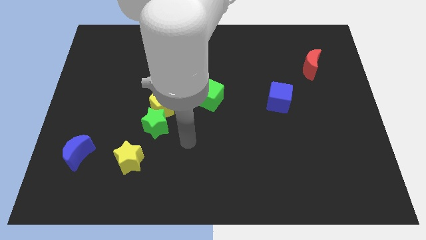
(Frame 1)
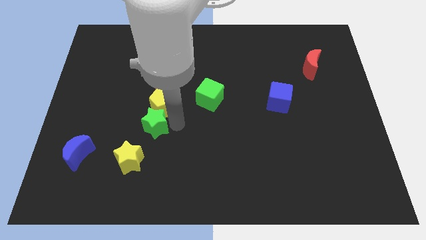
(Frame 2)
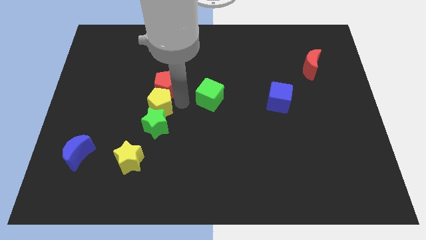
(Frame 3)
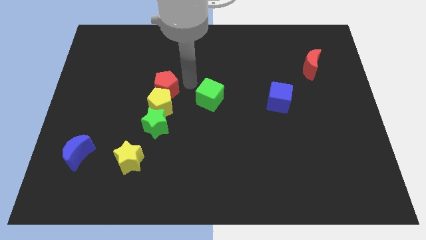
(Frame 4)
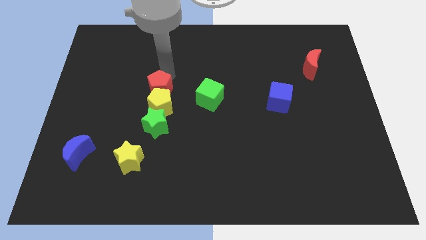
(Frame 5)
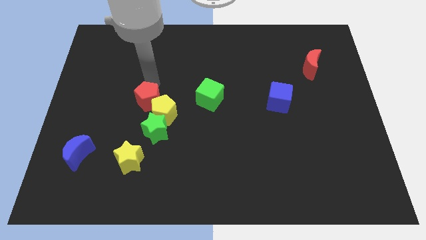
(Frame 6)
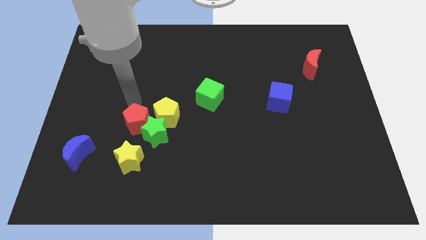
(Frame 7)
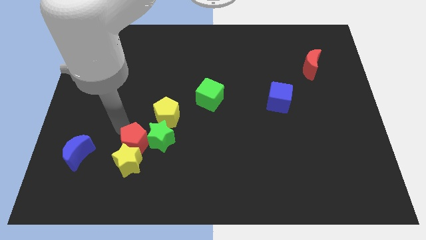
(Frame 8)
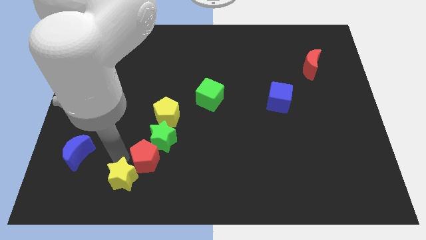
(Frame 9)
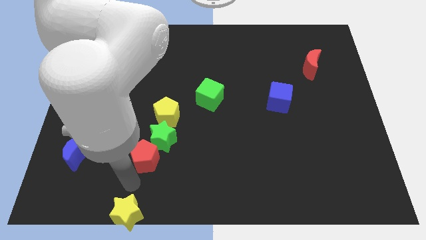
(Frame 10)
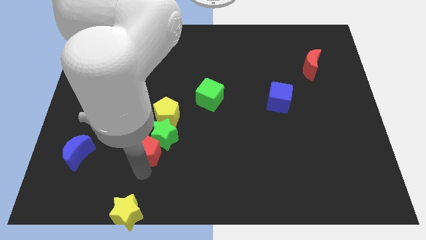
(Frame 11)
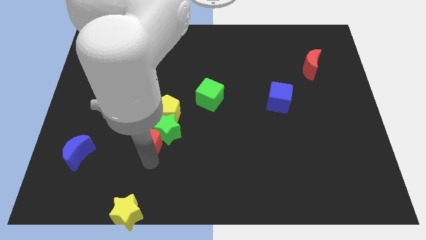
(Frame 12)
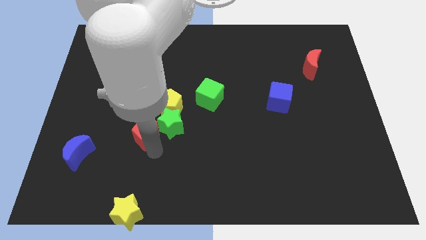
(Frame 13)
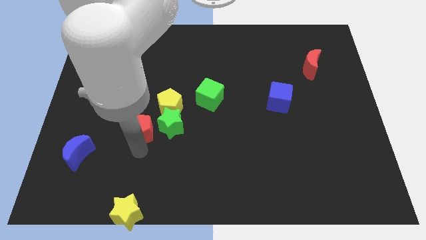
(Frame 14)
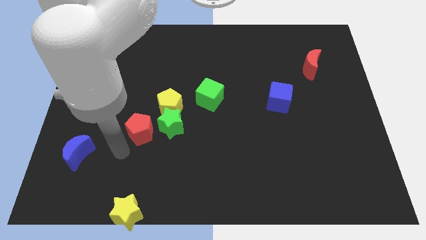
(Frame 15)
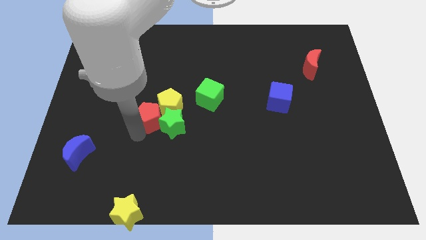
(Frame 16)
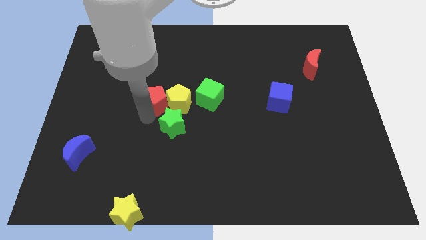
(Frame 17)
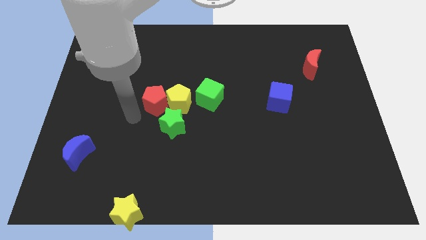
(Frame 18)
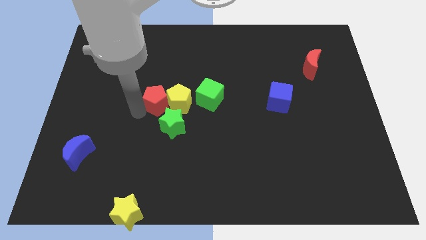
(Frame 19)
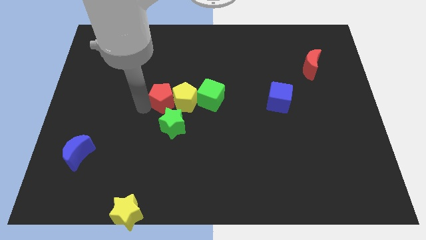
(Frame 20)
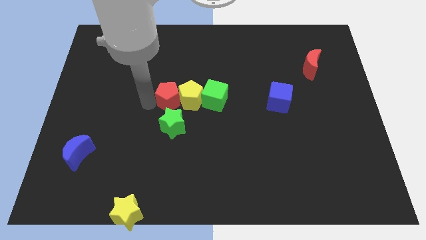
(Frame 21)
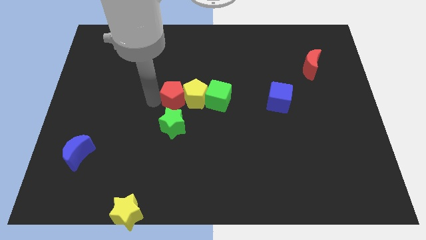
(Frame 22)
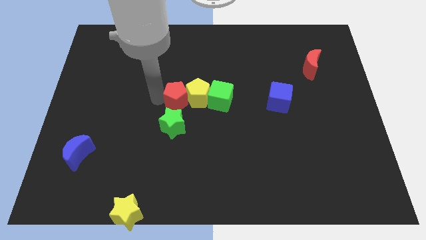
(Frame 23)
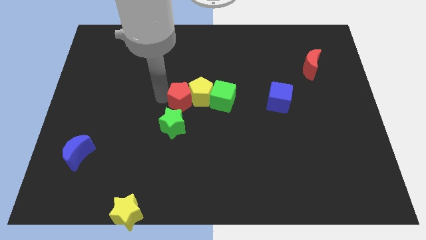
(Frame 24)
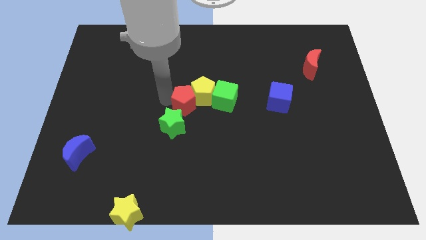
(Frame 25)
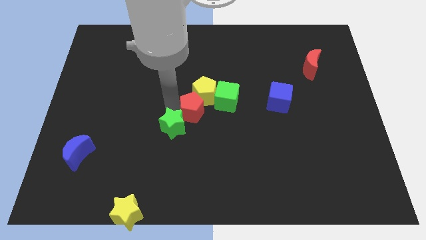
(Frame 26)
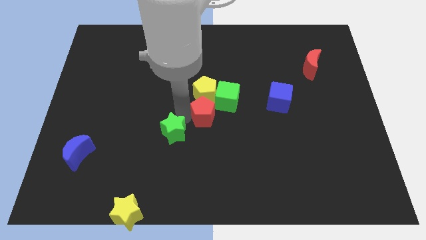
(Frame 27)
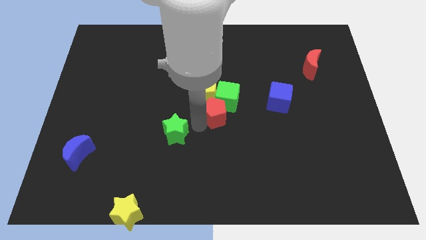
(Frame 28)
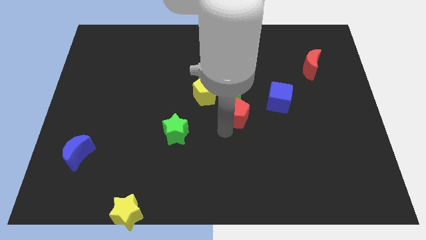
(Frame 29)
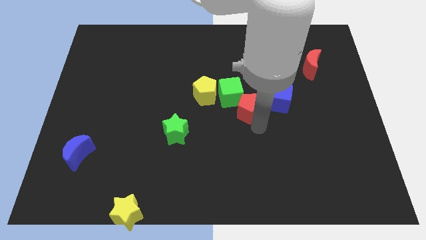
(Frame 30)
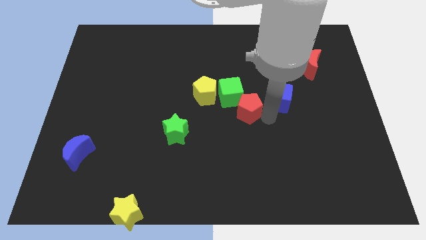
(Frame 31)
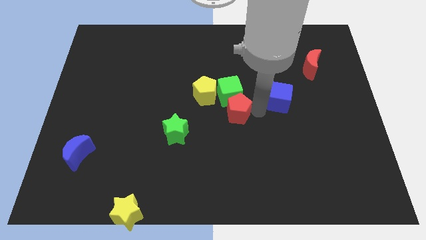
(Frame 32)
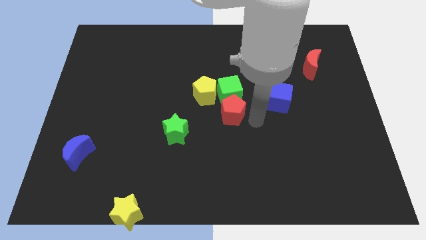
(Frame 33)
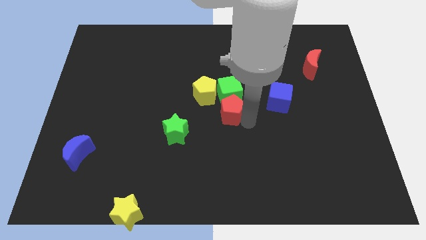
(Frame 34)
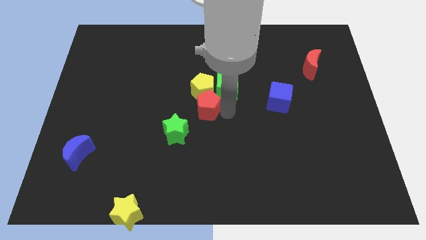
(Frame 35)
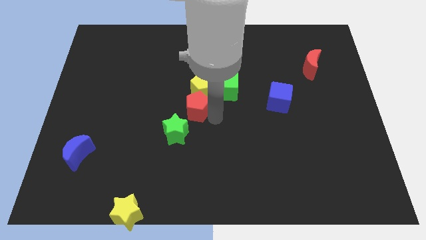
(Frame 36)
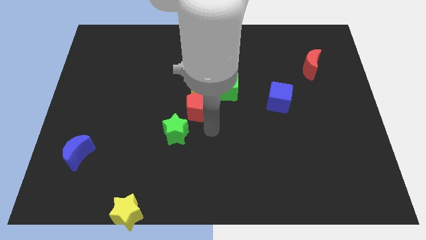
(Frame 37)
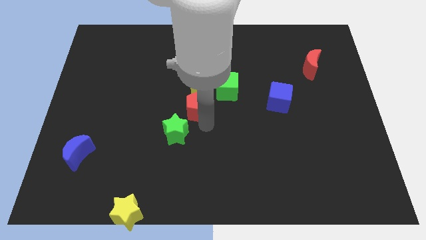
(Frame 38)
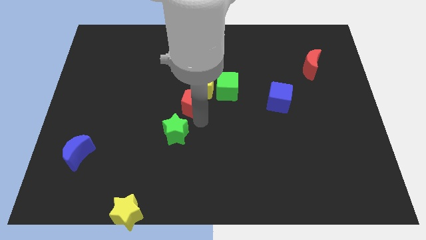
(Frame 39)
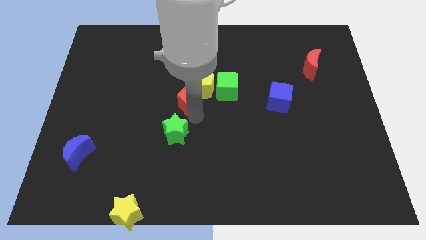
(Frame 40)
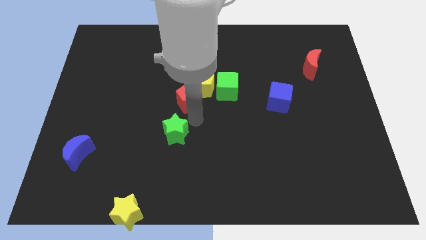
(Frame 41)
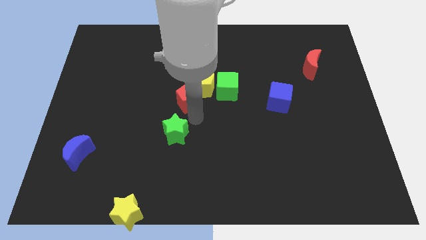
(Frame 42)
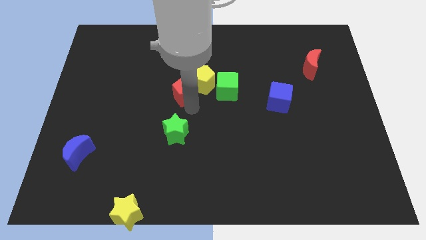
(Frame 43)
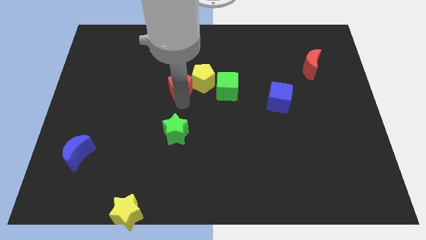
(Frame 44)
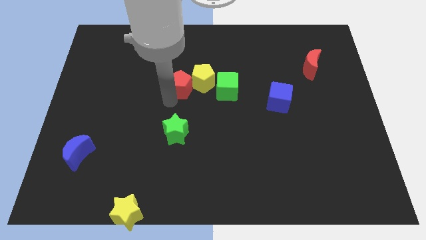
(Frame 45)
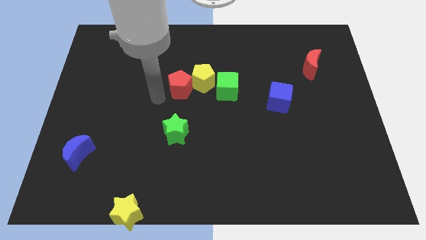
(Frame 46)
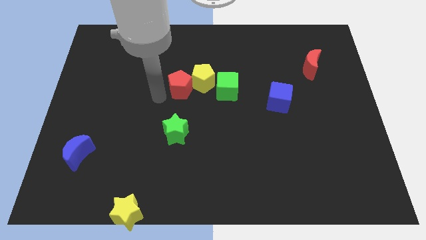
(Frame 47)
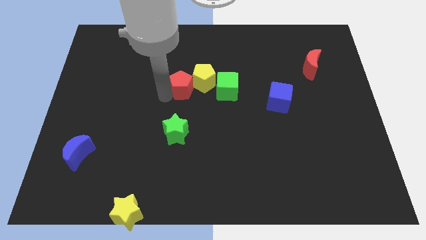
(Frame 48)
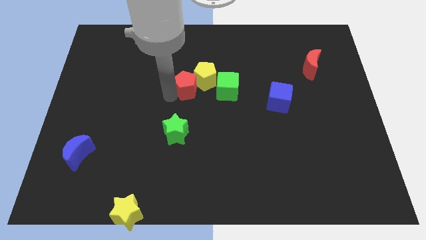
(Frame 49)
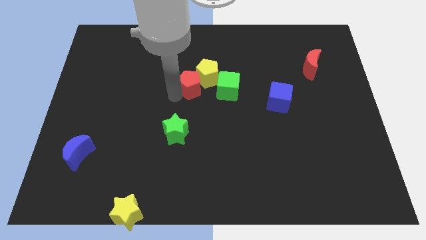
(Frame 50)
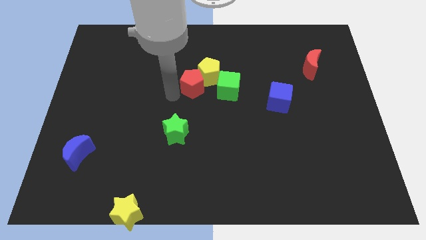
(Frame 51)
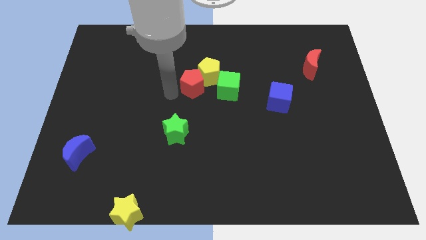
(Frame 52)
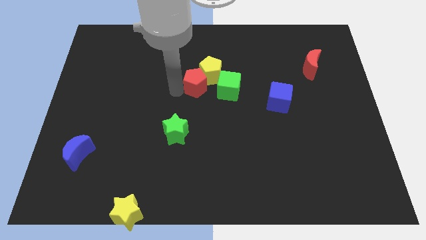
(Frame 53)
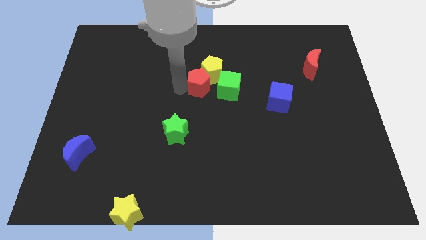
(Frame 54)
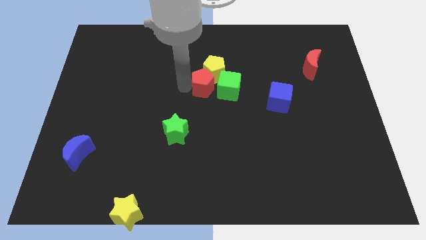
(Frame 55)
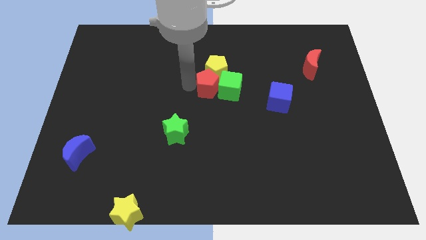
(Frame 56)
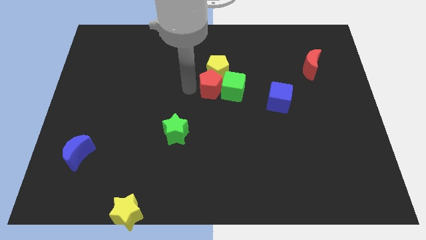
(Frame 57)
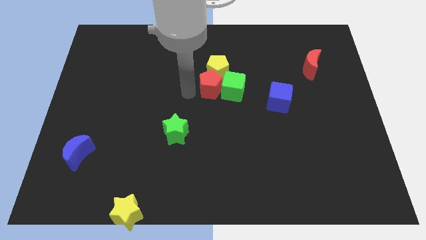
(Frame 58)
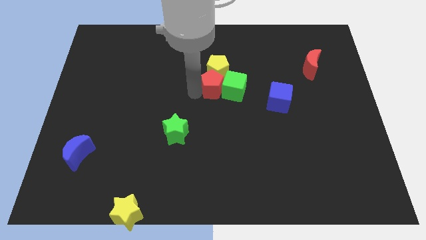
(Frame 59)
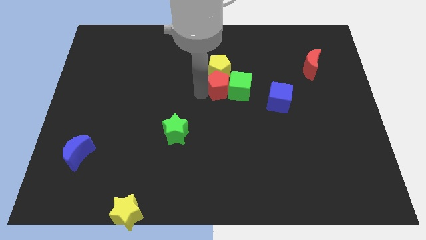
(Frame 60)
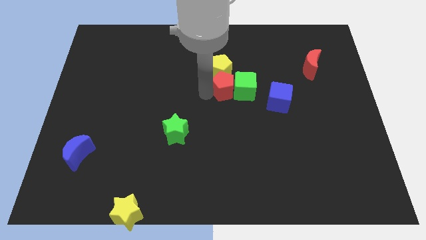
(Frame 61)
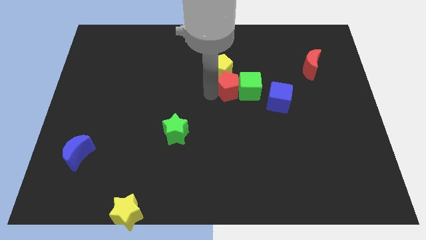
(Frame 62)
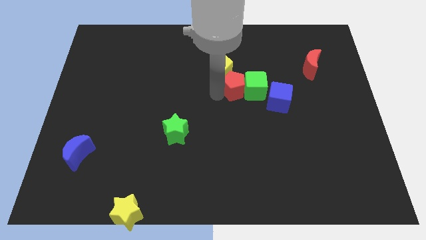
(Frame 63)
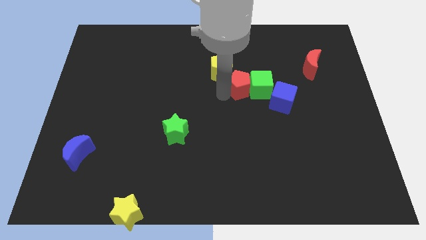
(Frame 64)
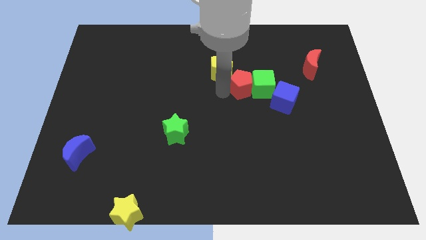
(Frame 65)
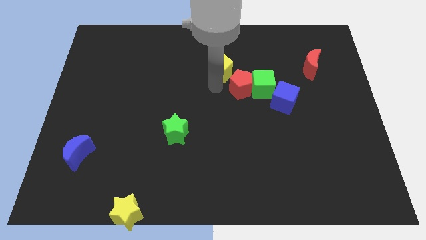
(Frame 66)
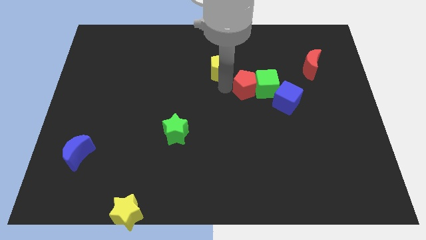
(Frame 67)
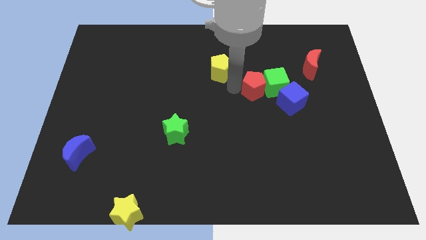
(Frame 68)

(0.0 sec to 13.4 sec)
slide the red pentagon right

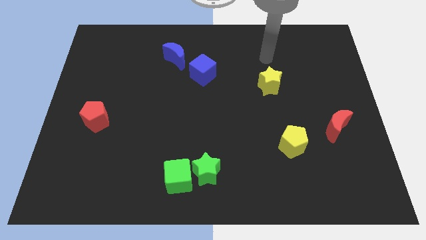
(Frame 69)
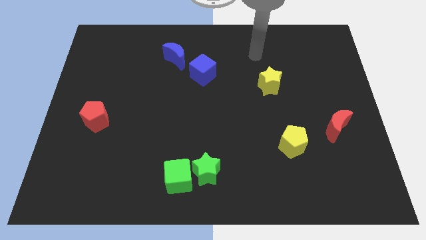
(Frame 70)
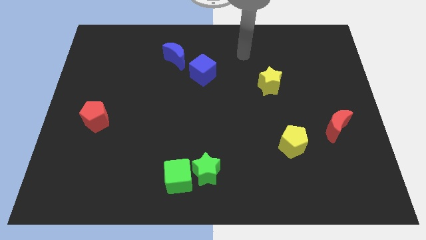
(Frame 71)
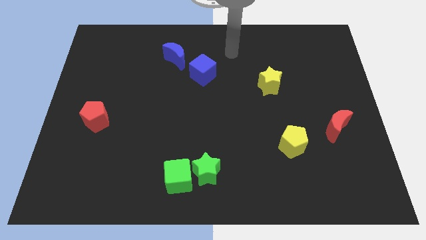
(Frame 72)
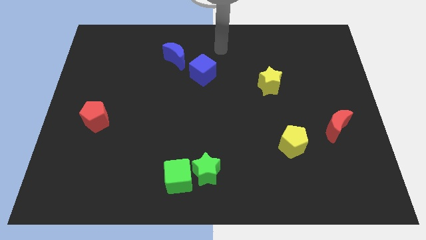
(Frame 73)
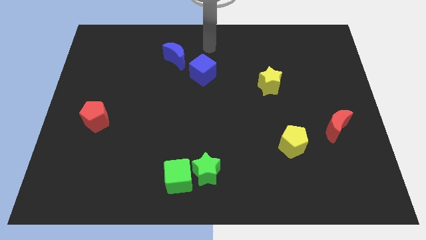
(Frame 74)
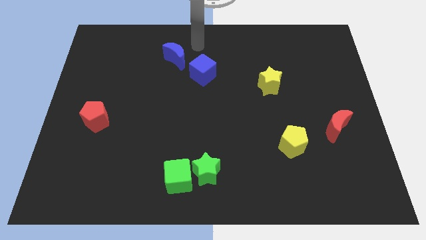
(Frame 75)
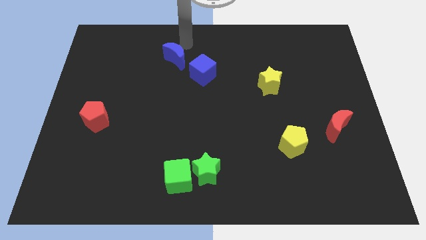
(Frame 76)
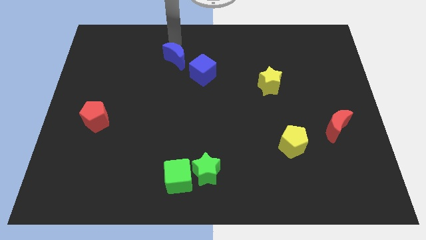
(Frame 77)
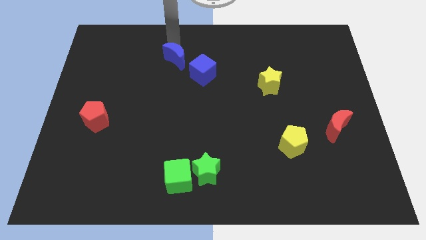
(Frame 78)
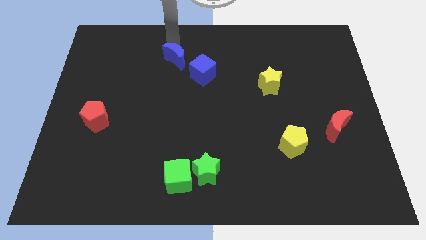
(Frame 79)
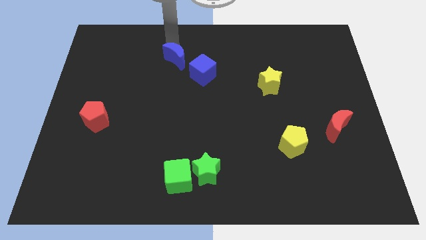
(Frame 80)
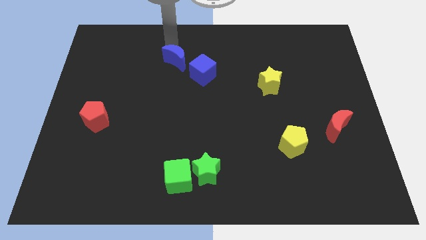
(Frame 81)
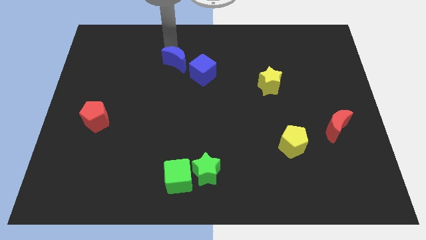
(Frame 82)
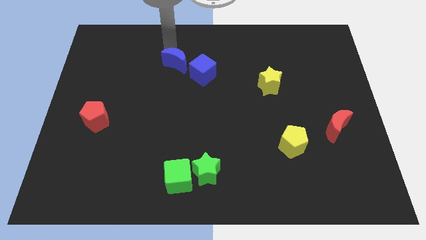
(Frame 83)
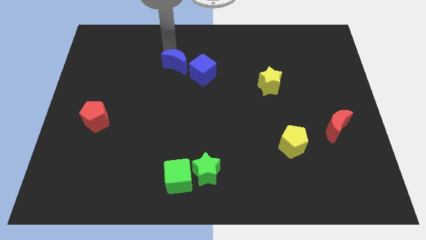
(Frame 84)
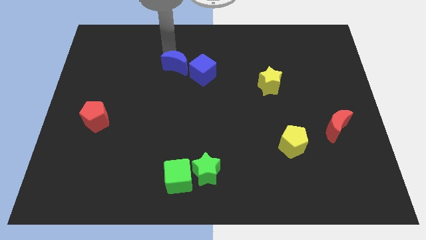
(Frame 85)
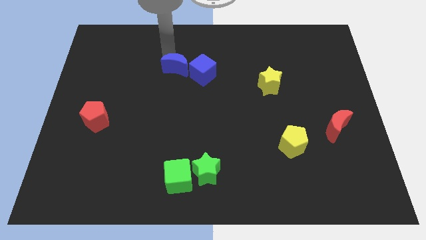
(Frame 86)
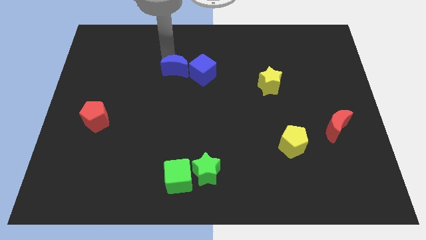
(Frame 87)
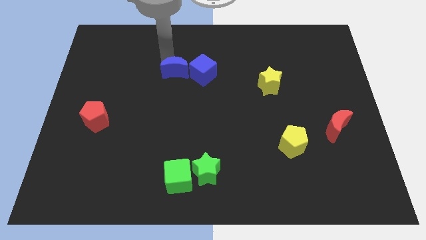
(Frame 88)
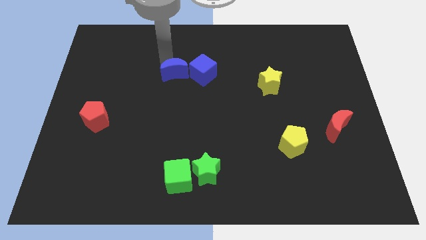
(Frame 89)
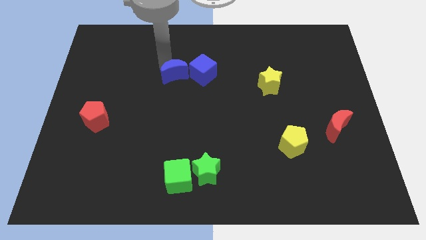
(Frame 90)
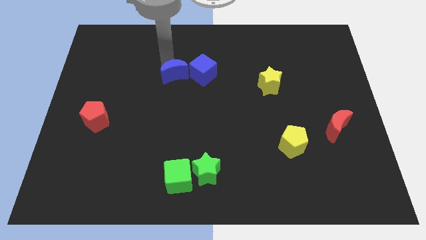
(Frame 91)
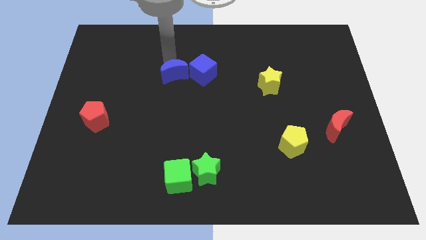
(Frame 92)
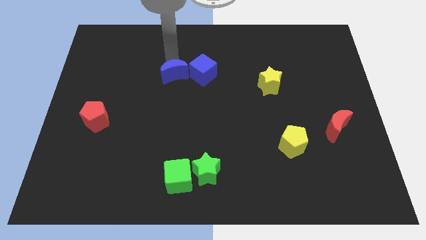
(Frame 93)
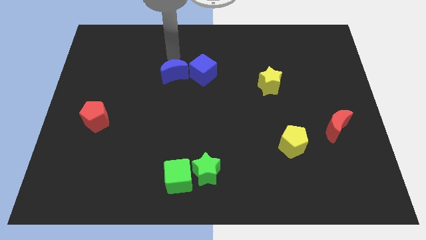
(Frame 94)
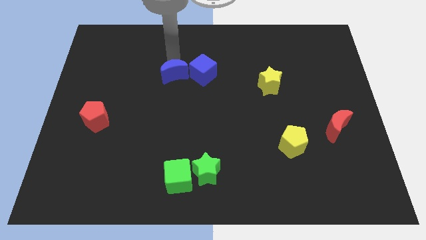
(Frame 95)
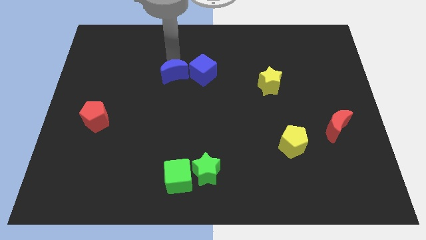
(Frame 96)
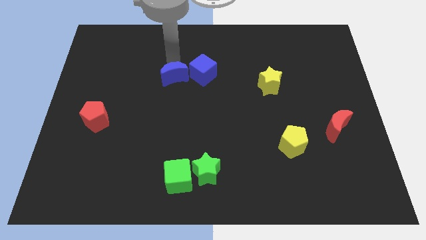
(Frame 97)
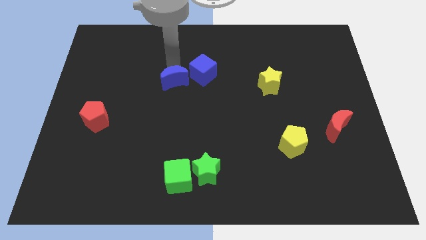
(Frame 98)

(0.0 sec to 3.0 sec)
push the blue moon downwards a little
